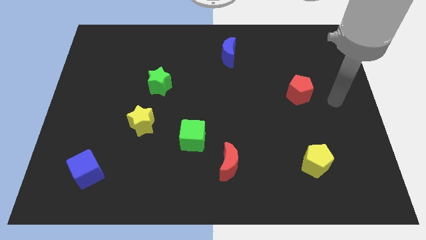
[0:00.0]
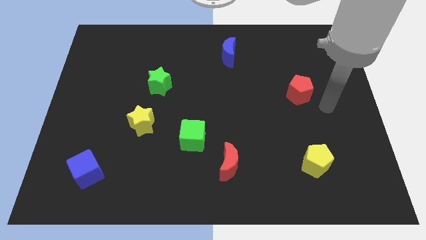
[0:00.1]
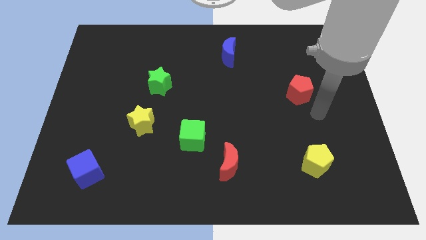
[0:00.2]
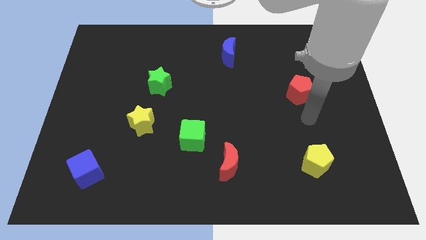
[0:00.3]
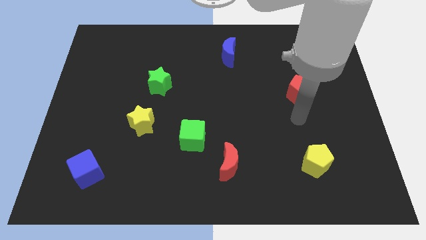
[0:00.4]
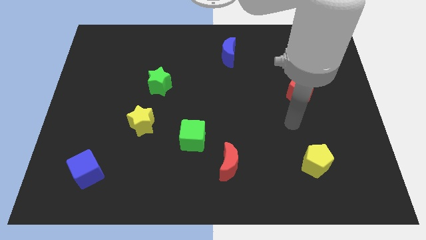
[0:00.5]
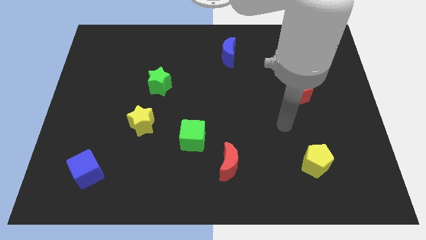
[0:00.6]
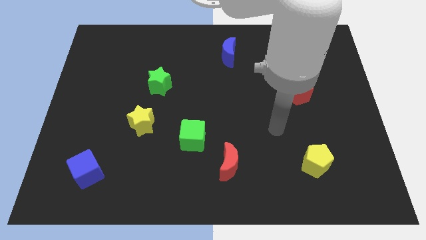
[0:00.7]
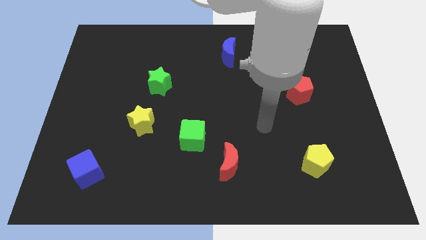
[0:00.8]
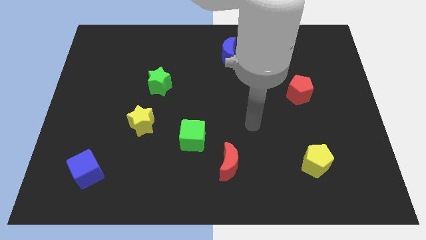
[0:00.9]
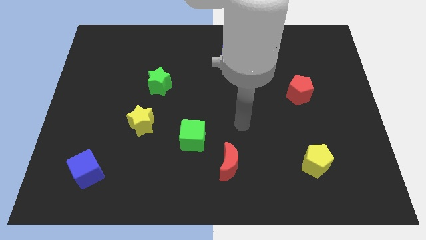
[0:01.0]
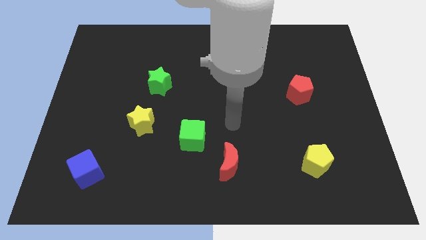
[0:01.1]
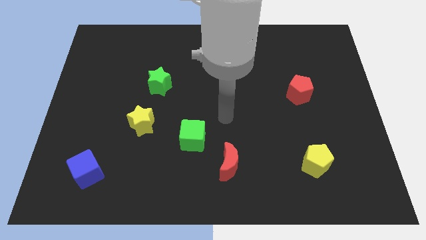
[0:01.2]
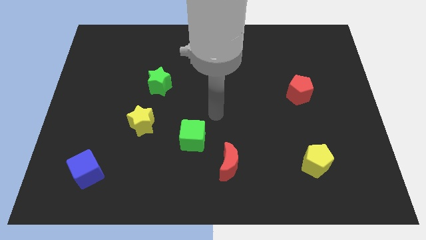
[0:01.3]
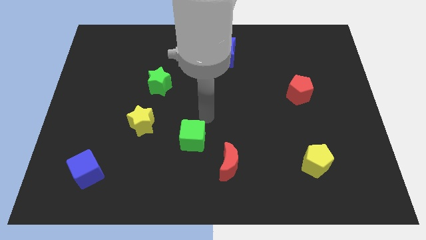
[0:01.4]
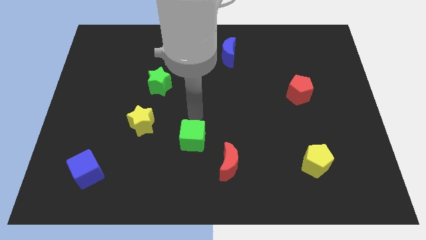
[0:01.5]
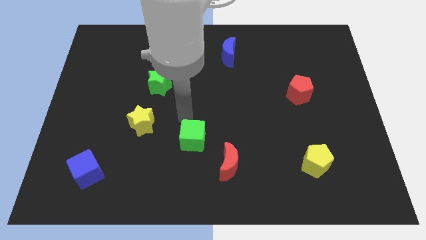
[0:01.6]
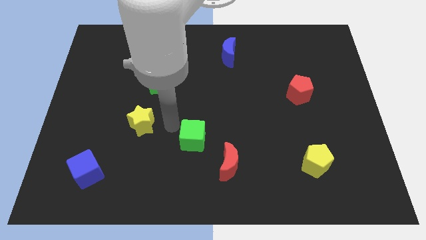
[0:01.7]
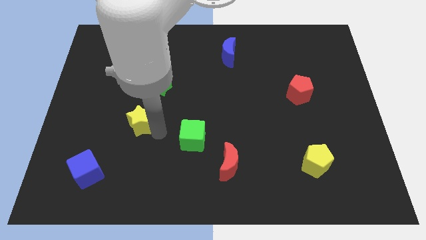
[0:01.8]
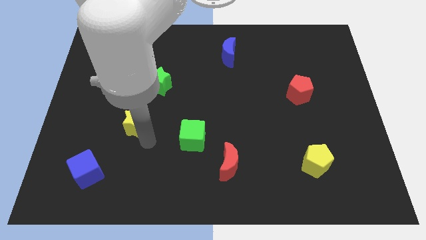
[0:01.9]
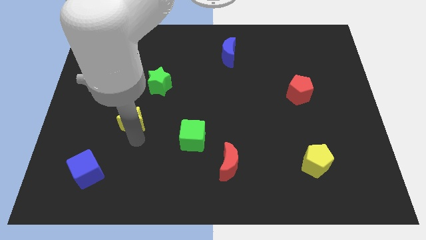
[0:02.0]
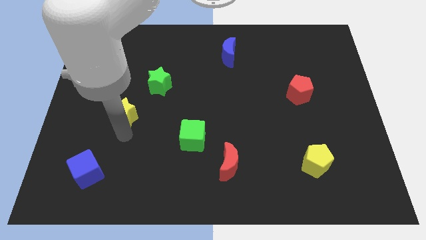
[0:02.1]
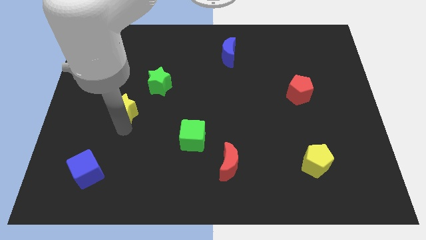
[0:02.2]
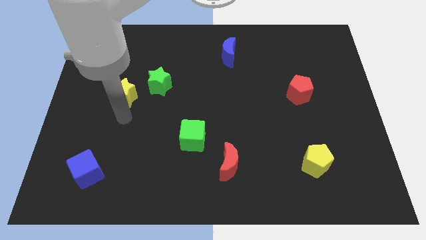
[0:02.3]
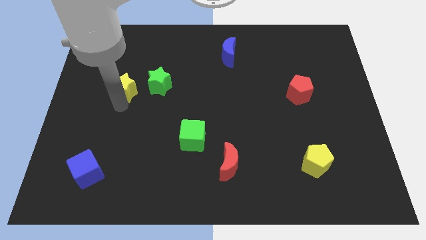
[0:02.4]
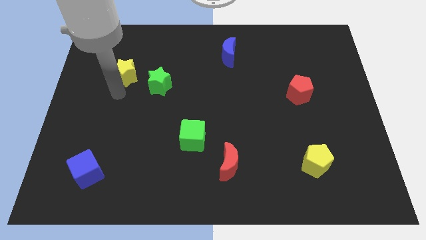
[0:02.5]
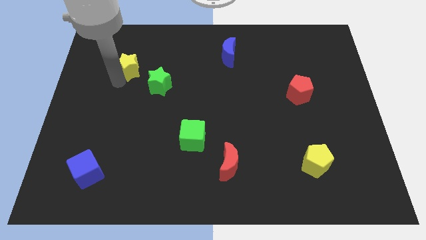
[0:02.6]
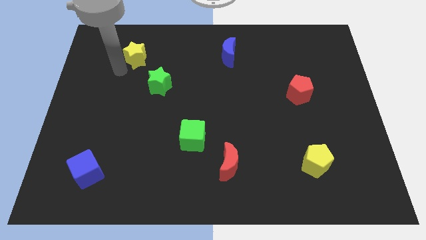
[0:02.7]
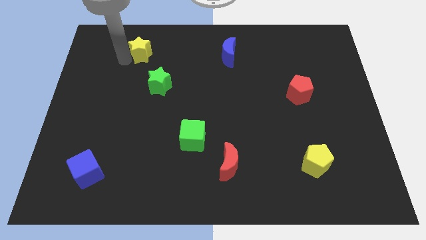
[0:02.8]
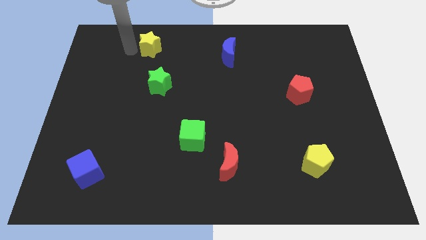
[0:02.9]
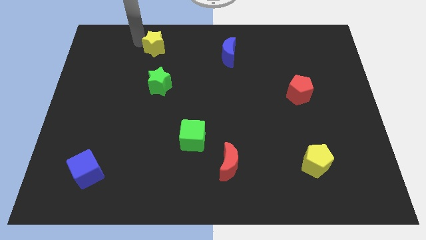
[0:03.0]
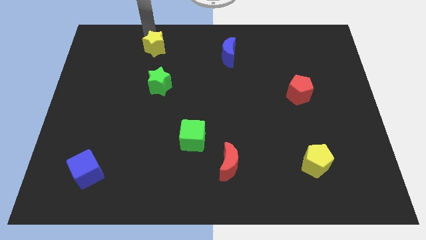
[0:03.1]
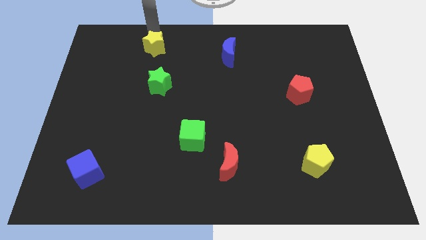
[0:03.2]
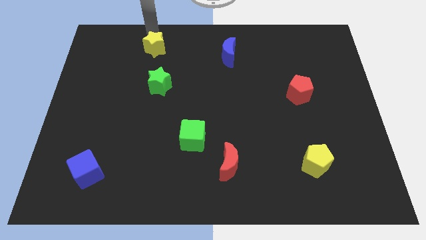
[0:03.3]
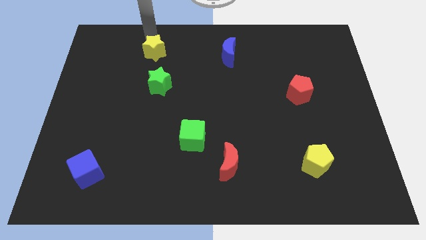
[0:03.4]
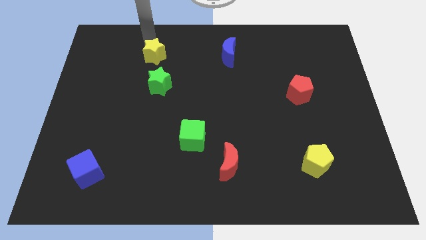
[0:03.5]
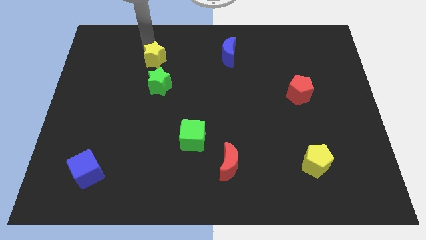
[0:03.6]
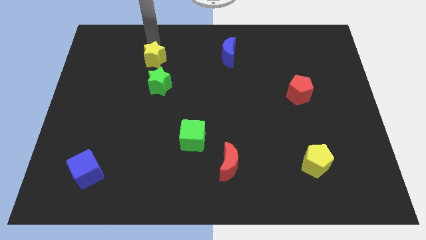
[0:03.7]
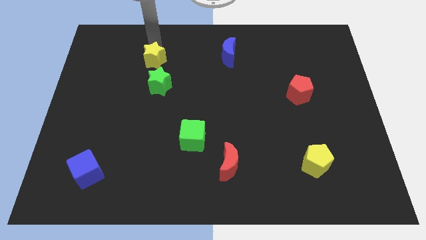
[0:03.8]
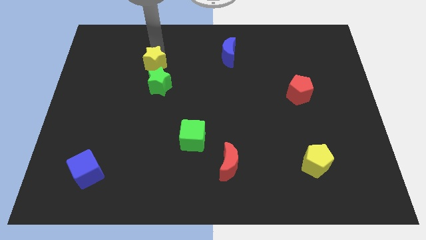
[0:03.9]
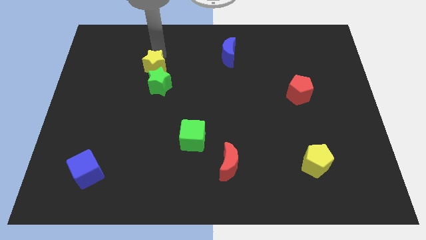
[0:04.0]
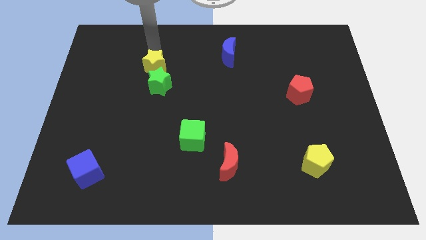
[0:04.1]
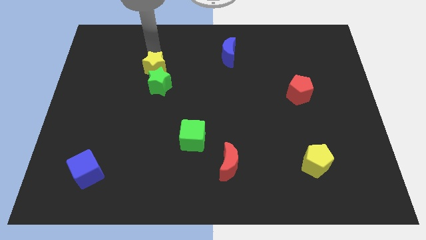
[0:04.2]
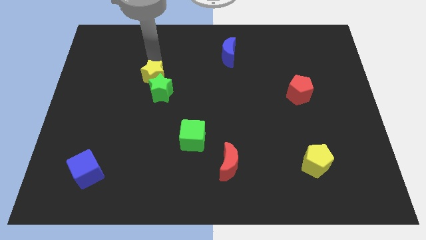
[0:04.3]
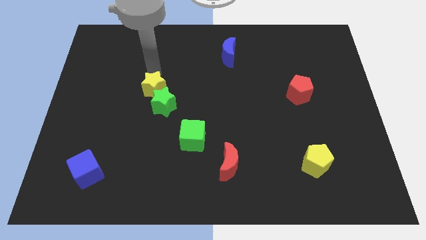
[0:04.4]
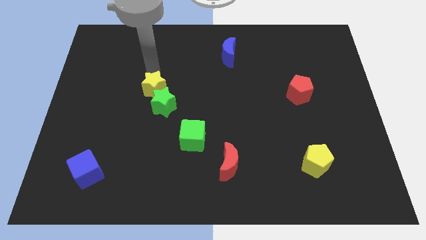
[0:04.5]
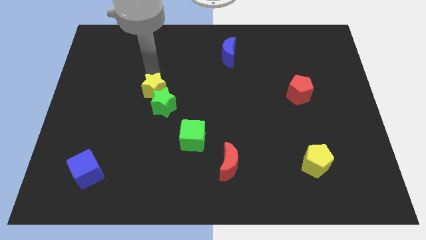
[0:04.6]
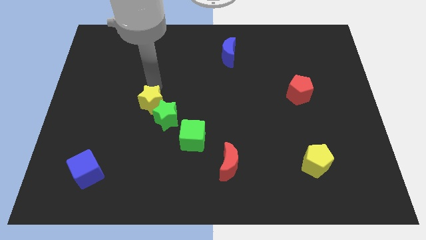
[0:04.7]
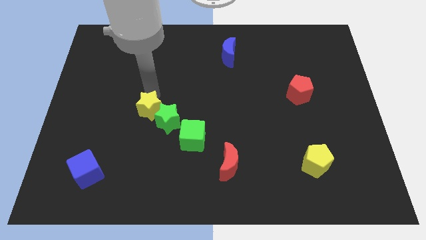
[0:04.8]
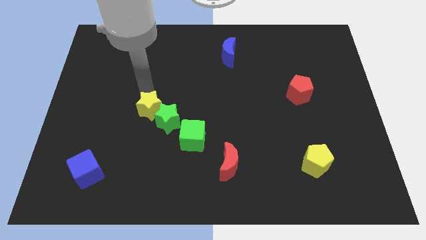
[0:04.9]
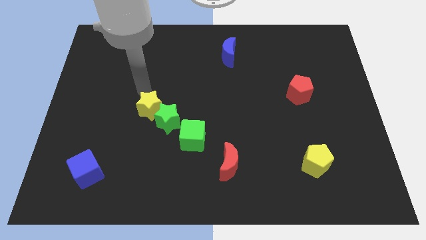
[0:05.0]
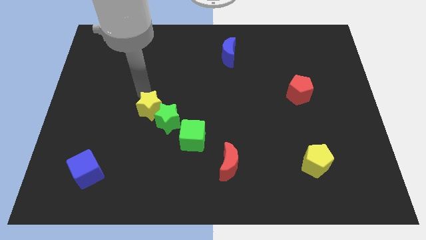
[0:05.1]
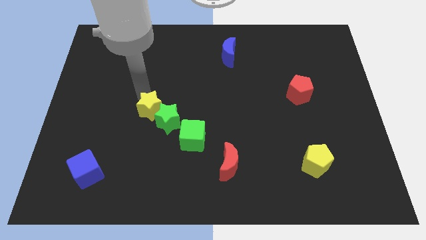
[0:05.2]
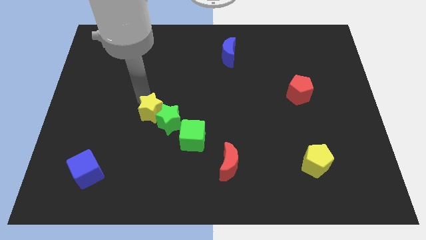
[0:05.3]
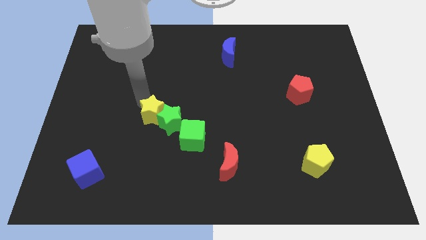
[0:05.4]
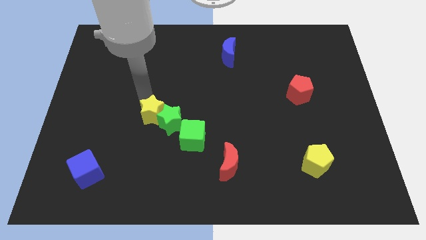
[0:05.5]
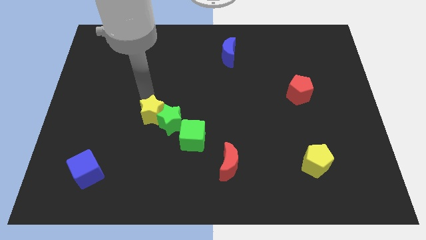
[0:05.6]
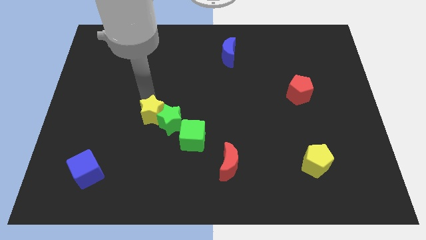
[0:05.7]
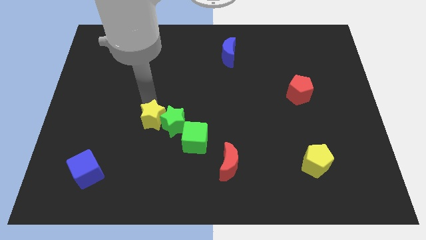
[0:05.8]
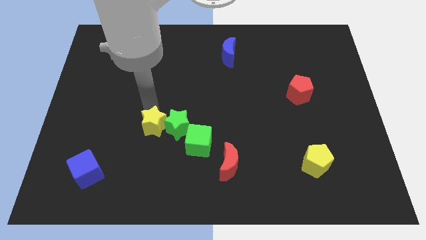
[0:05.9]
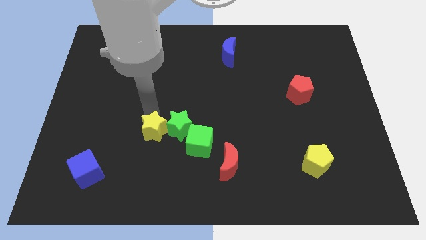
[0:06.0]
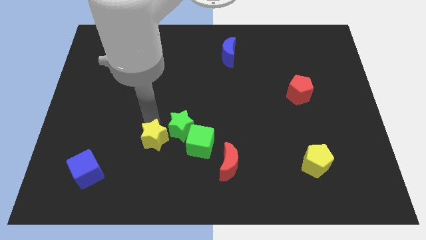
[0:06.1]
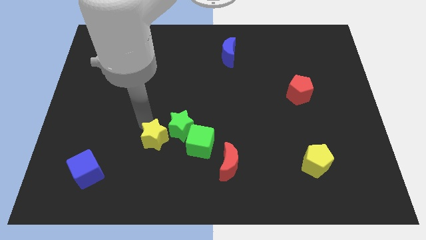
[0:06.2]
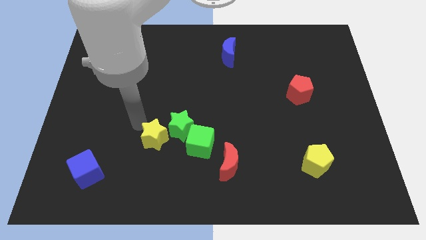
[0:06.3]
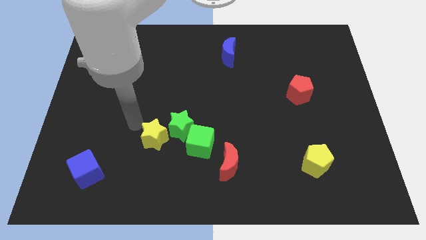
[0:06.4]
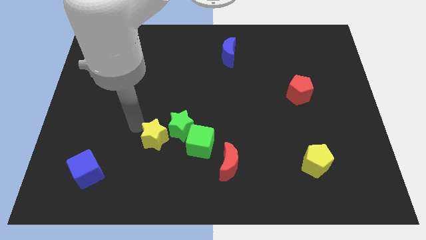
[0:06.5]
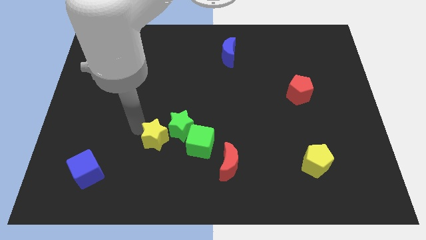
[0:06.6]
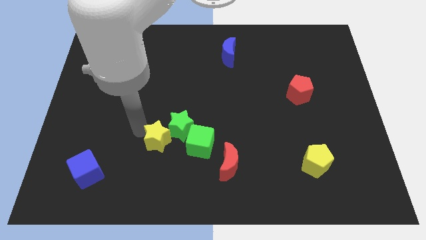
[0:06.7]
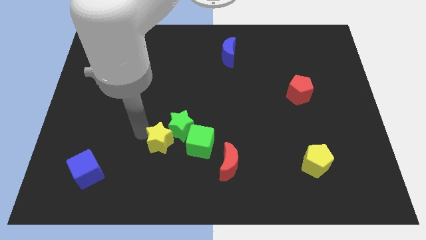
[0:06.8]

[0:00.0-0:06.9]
push the yellow star somewhat downwards and to the right

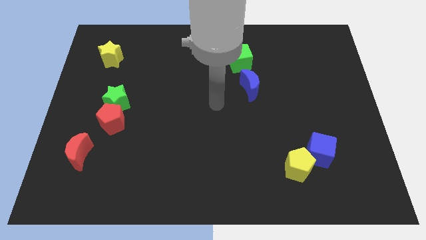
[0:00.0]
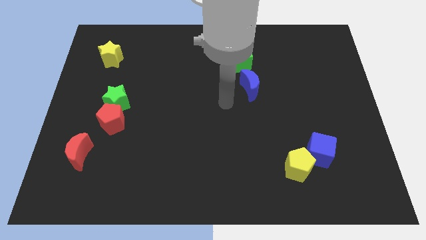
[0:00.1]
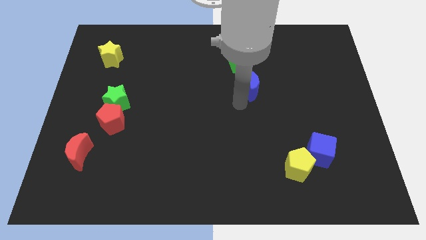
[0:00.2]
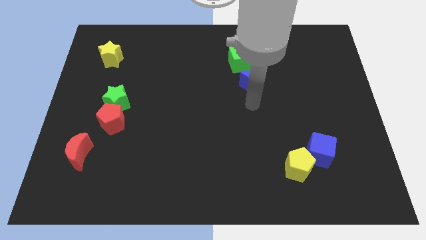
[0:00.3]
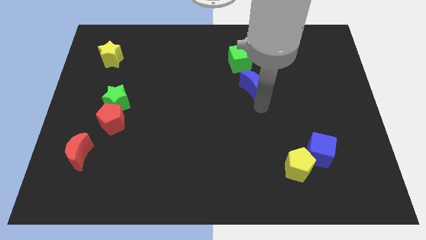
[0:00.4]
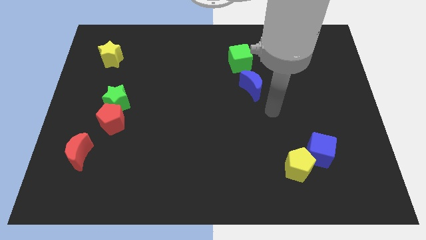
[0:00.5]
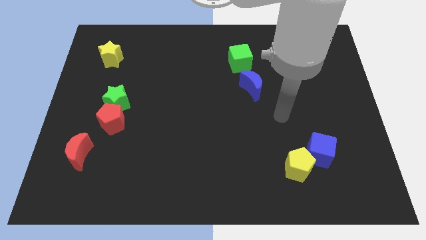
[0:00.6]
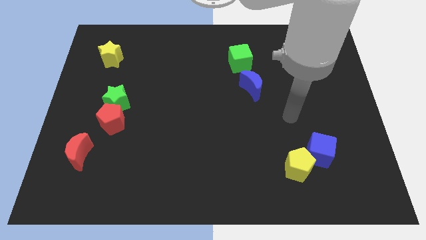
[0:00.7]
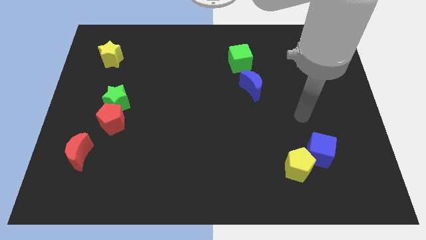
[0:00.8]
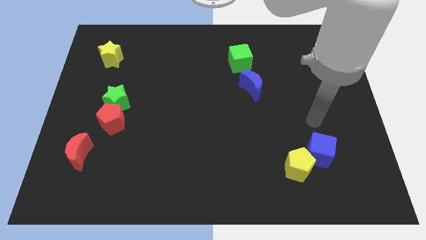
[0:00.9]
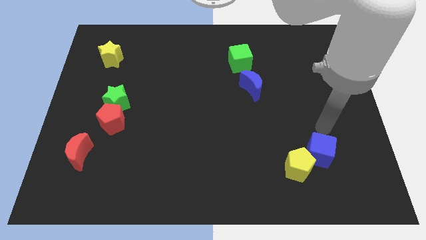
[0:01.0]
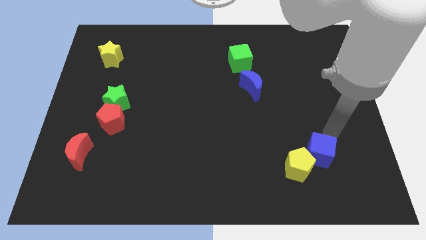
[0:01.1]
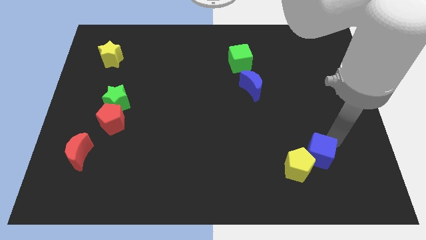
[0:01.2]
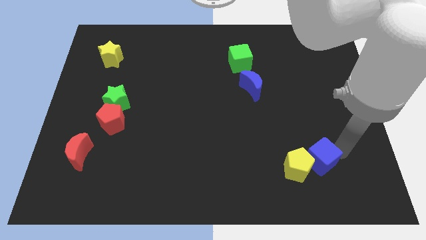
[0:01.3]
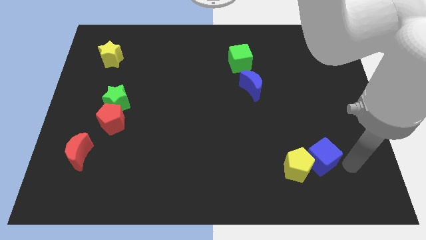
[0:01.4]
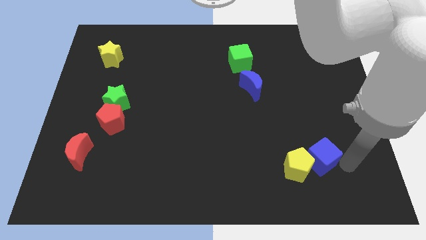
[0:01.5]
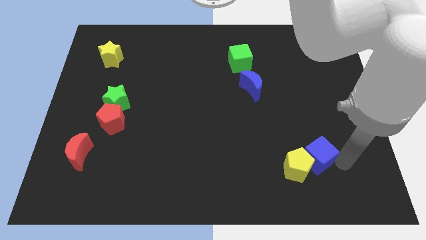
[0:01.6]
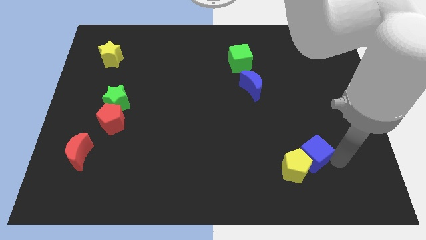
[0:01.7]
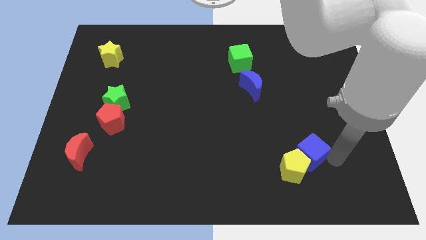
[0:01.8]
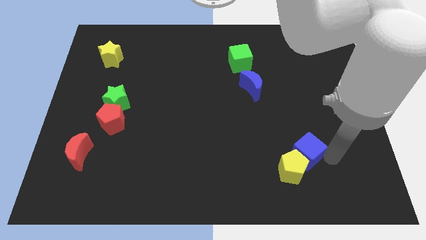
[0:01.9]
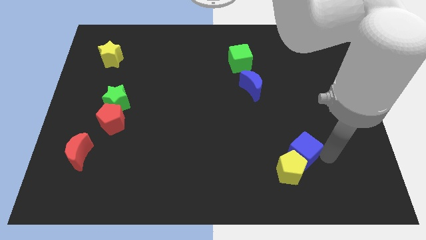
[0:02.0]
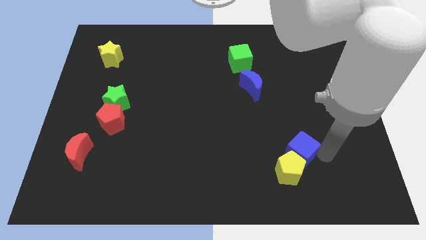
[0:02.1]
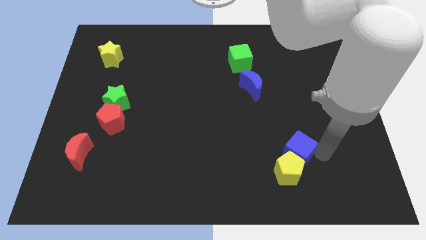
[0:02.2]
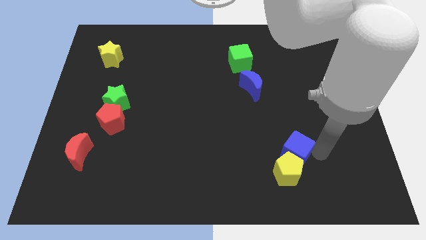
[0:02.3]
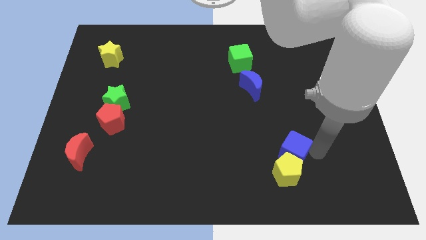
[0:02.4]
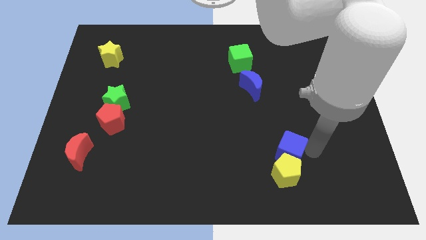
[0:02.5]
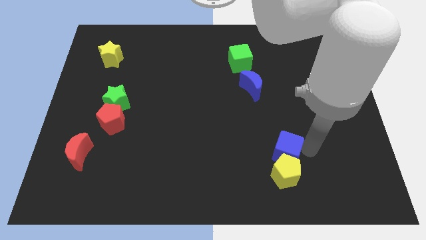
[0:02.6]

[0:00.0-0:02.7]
push the blue cube a bit left
